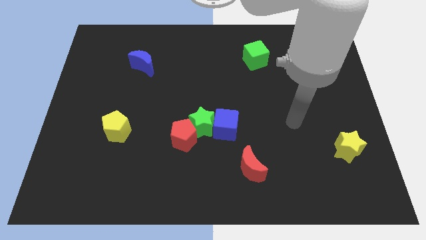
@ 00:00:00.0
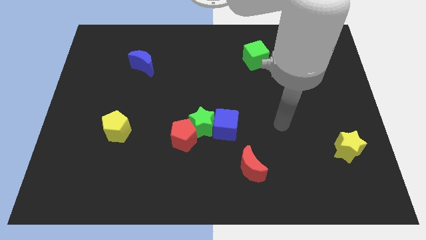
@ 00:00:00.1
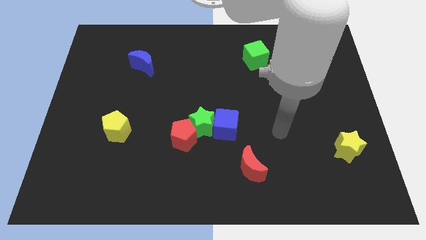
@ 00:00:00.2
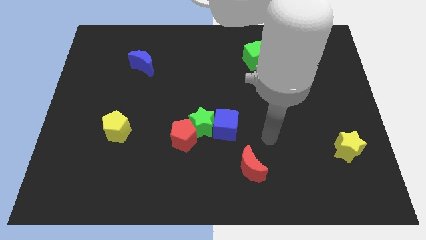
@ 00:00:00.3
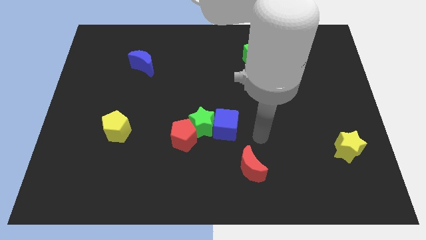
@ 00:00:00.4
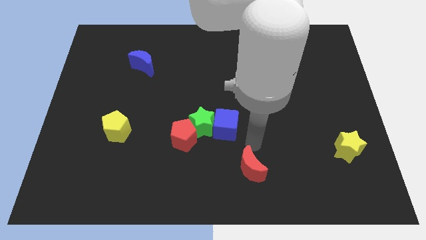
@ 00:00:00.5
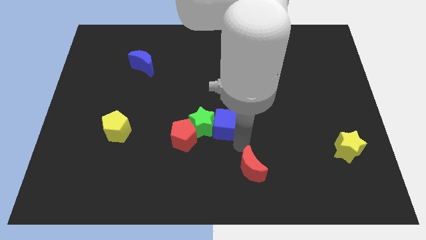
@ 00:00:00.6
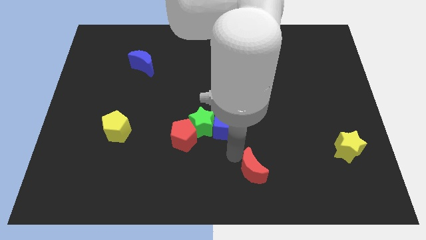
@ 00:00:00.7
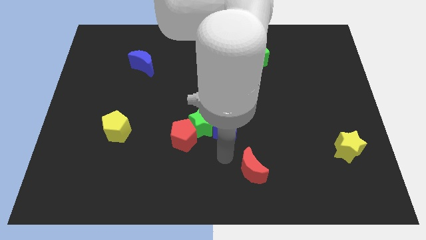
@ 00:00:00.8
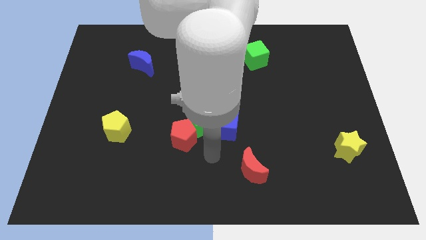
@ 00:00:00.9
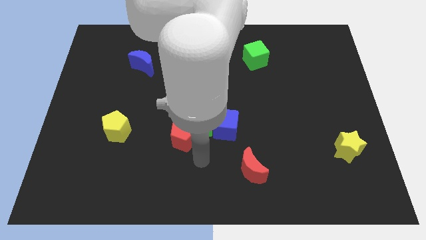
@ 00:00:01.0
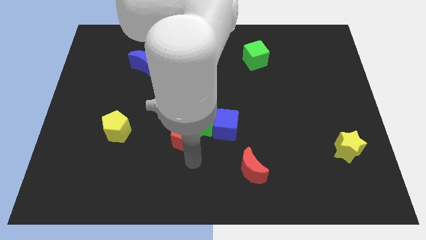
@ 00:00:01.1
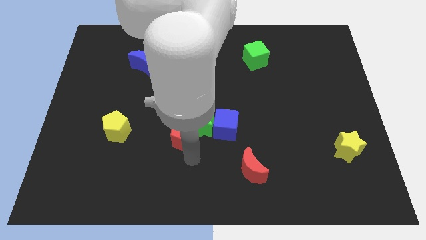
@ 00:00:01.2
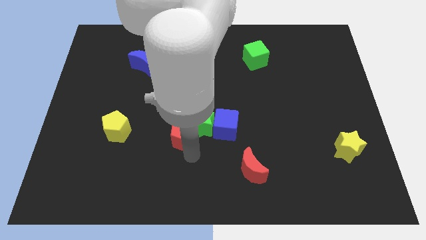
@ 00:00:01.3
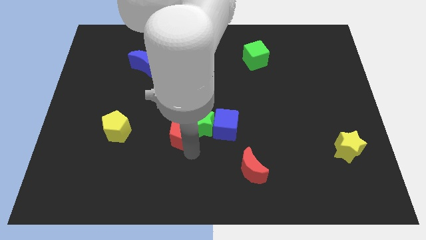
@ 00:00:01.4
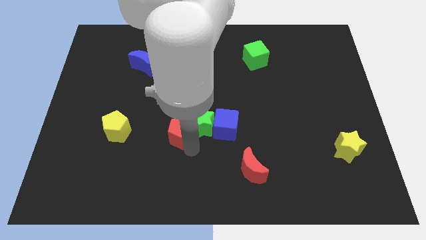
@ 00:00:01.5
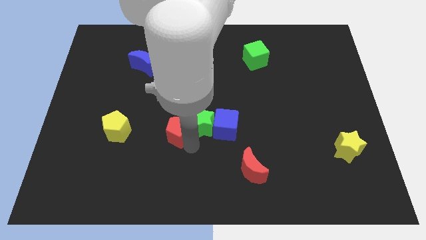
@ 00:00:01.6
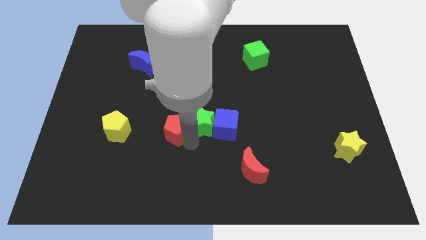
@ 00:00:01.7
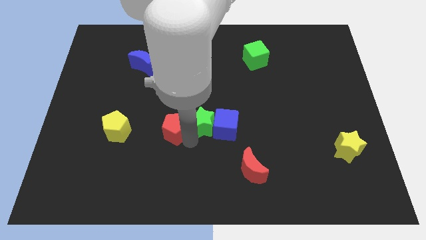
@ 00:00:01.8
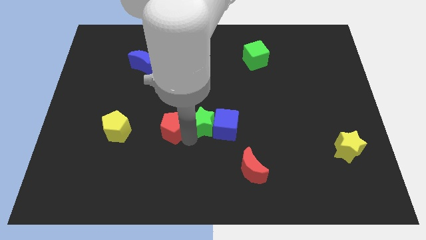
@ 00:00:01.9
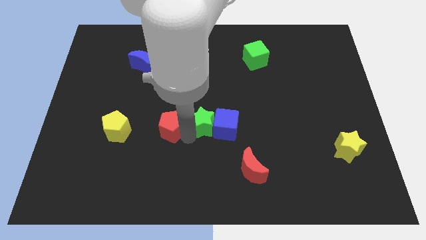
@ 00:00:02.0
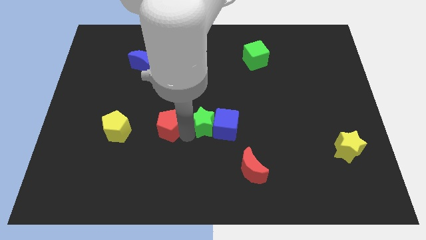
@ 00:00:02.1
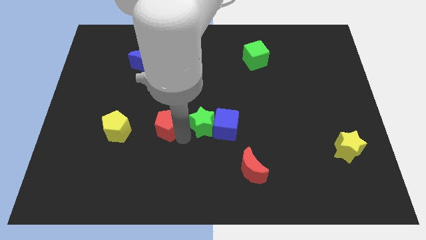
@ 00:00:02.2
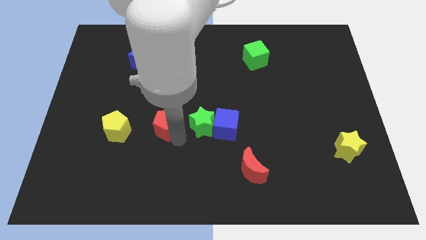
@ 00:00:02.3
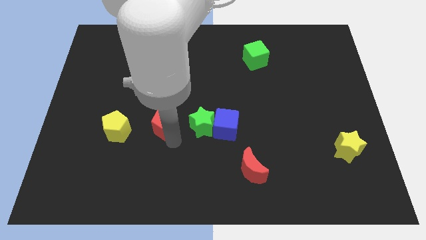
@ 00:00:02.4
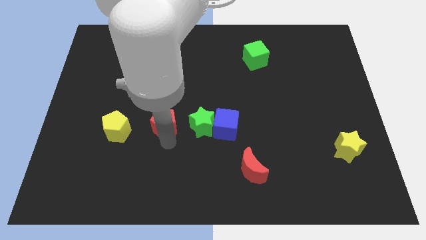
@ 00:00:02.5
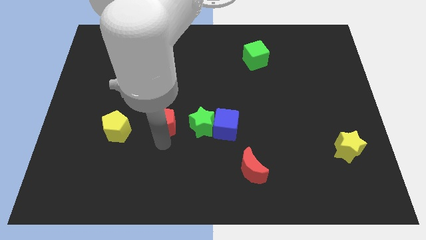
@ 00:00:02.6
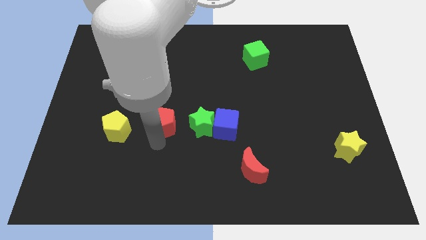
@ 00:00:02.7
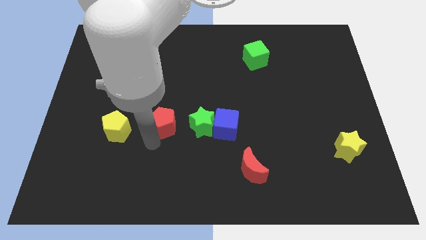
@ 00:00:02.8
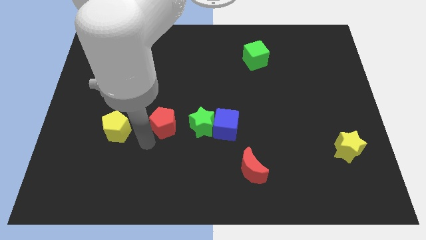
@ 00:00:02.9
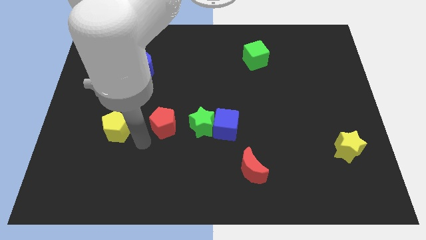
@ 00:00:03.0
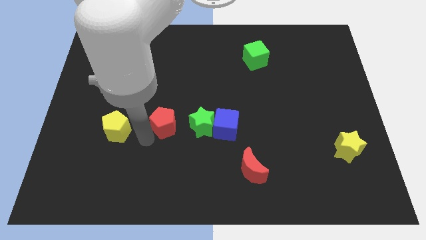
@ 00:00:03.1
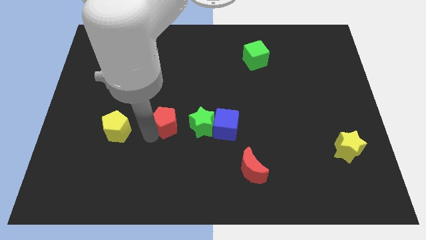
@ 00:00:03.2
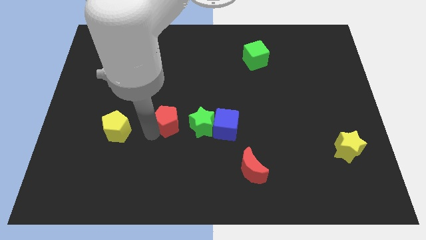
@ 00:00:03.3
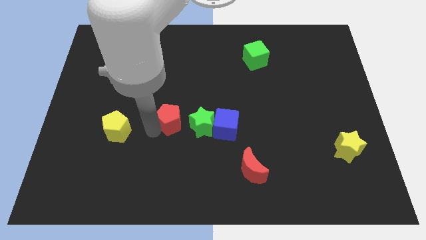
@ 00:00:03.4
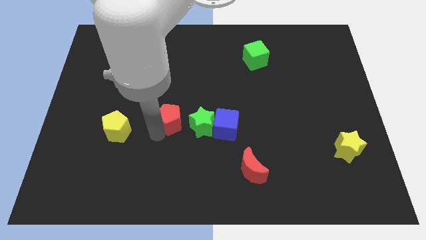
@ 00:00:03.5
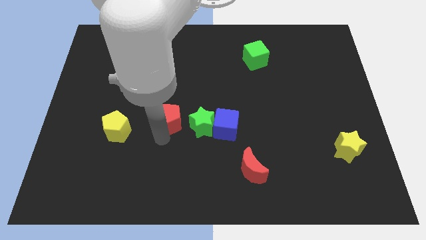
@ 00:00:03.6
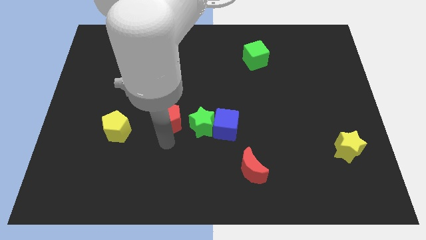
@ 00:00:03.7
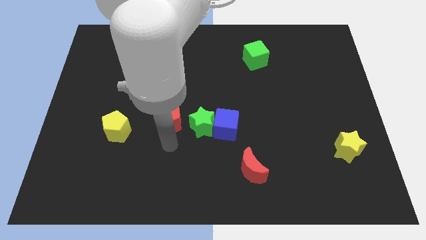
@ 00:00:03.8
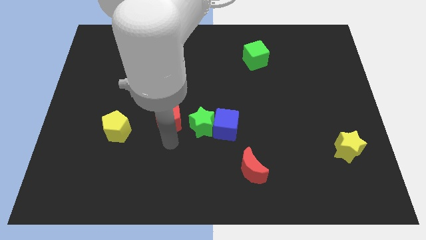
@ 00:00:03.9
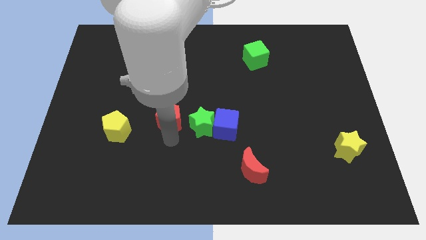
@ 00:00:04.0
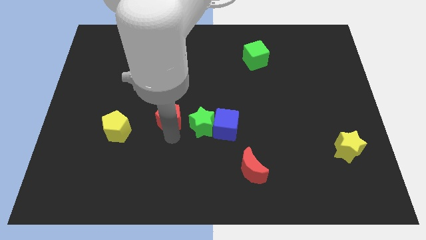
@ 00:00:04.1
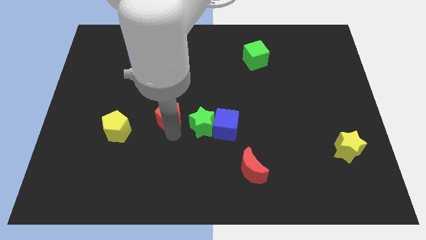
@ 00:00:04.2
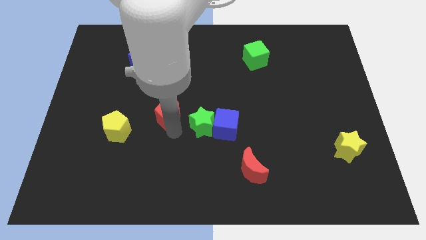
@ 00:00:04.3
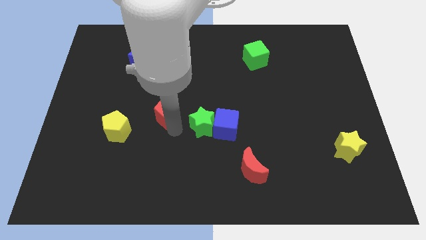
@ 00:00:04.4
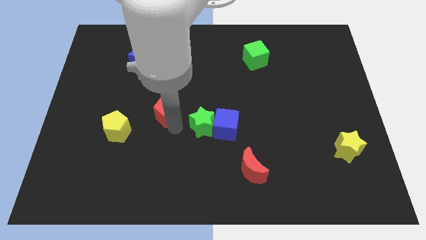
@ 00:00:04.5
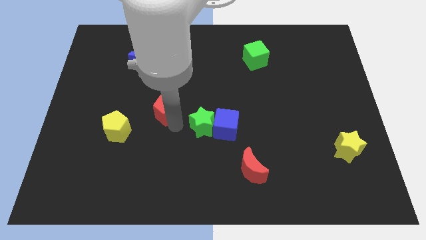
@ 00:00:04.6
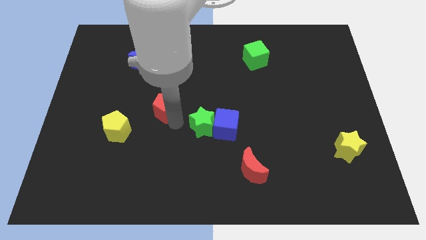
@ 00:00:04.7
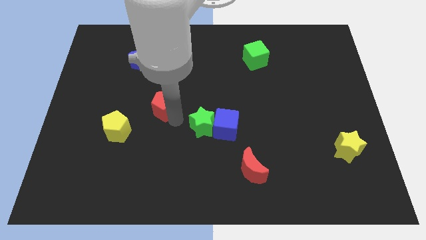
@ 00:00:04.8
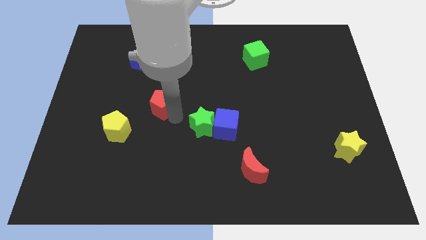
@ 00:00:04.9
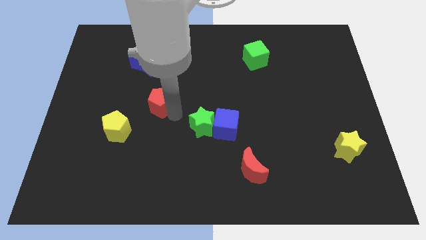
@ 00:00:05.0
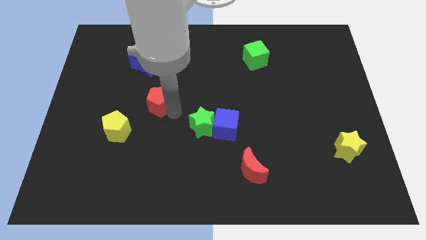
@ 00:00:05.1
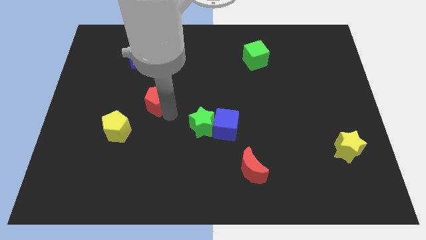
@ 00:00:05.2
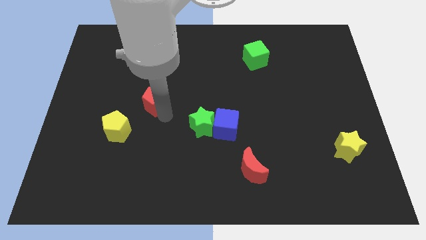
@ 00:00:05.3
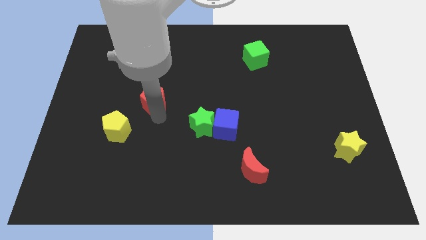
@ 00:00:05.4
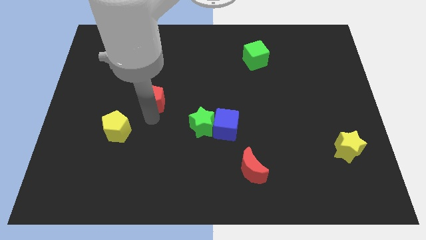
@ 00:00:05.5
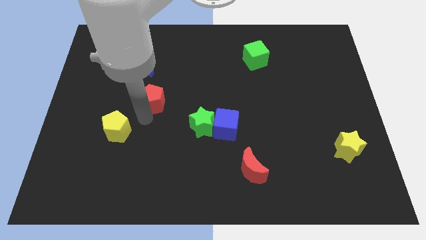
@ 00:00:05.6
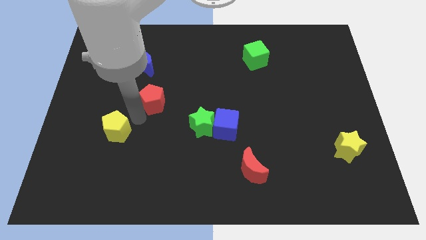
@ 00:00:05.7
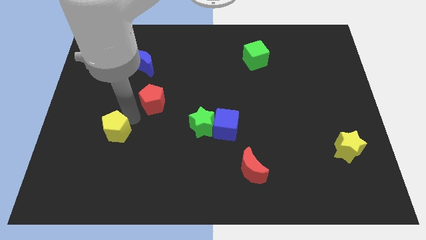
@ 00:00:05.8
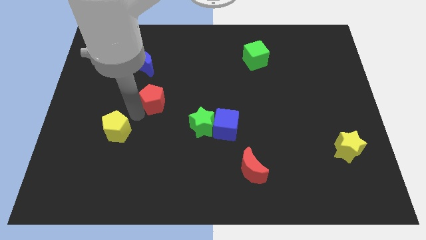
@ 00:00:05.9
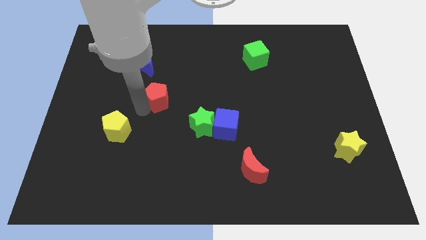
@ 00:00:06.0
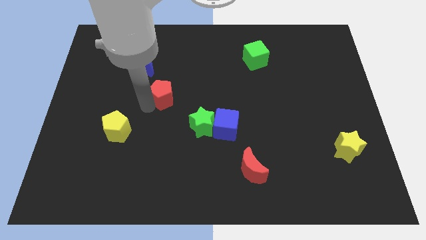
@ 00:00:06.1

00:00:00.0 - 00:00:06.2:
move the red pentagon to the bottom right of the blue moon
